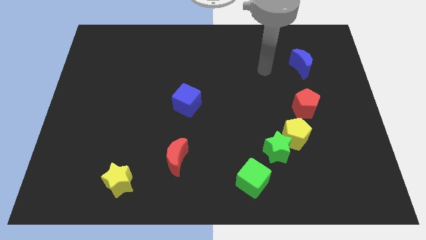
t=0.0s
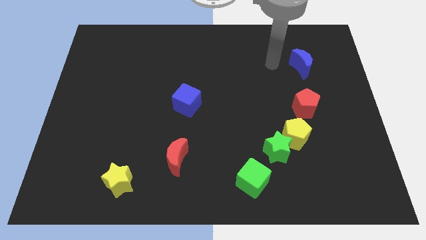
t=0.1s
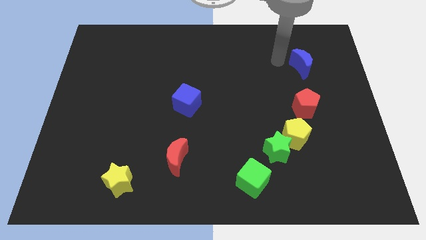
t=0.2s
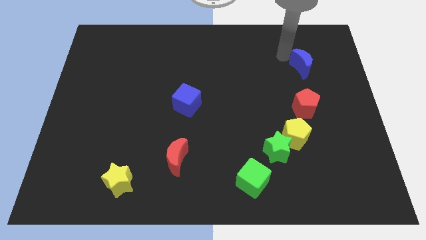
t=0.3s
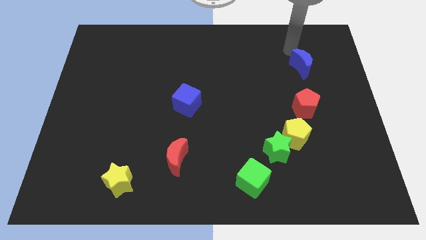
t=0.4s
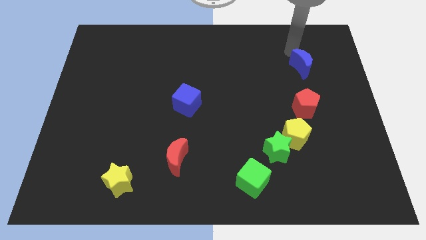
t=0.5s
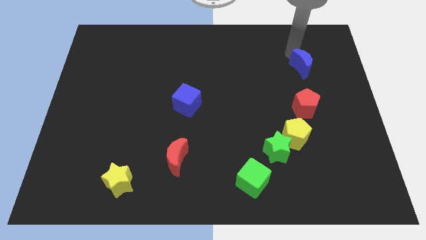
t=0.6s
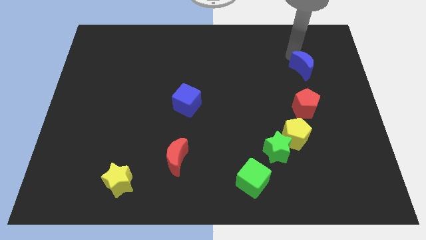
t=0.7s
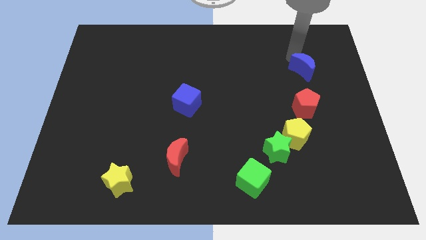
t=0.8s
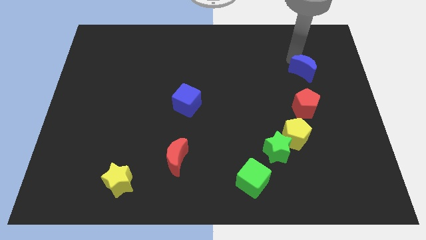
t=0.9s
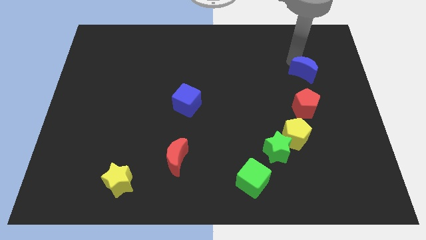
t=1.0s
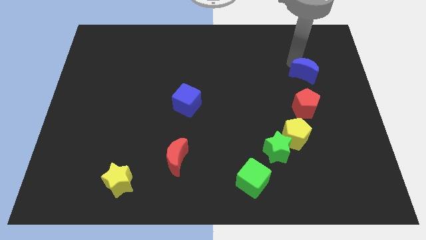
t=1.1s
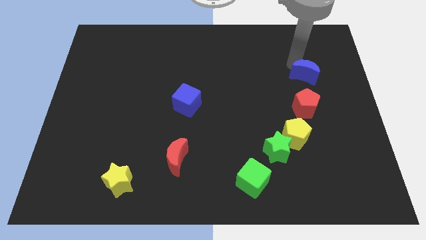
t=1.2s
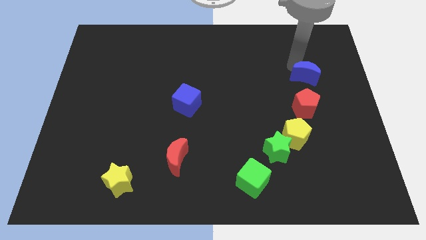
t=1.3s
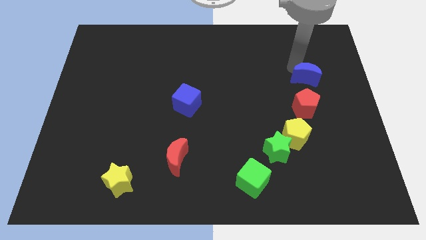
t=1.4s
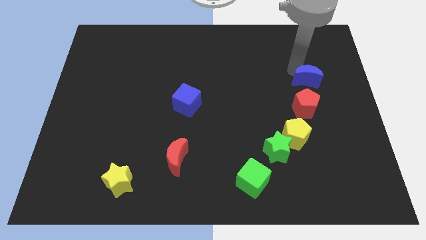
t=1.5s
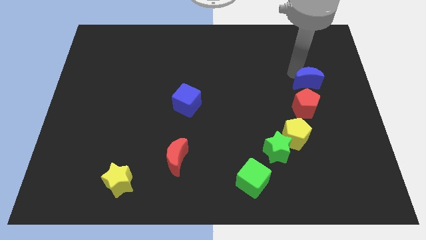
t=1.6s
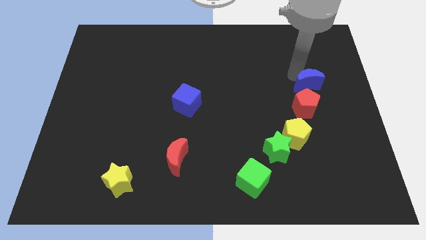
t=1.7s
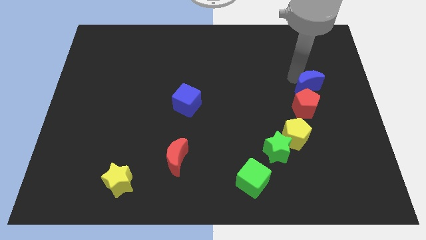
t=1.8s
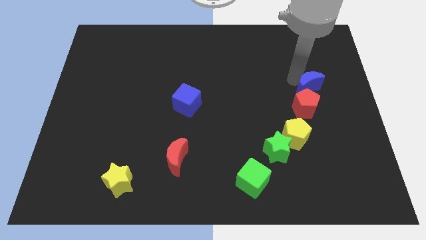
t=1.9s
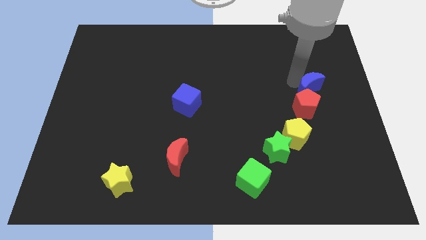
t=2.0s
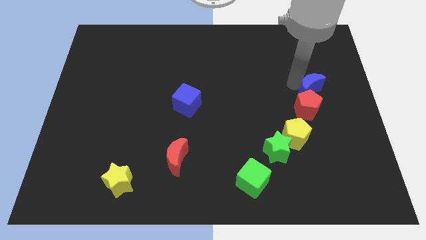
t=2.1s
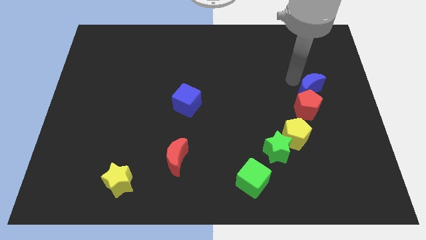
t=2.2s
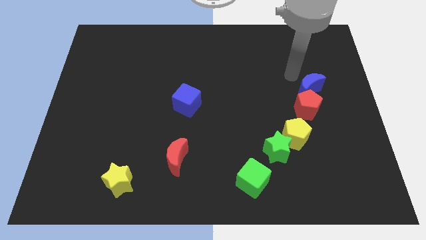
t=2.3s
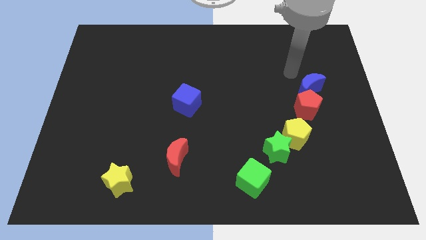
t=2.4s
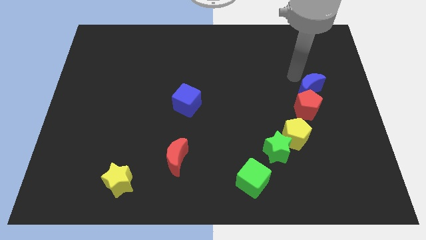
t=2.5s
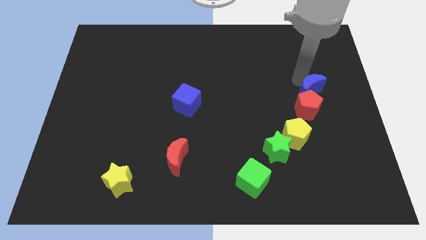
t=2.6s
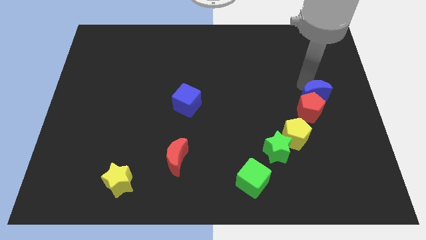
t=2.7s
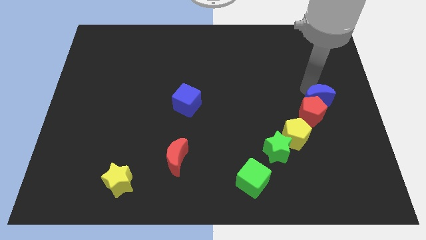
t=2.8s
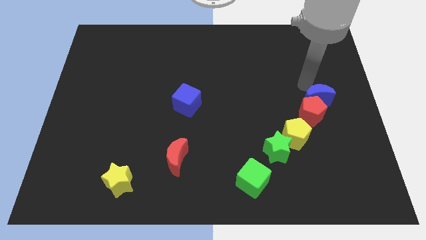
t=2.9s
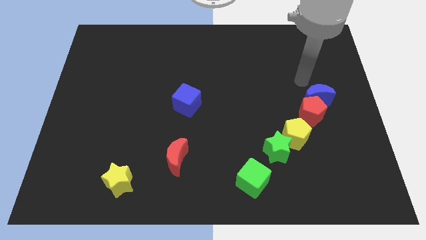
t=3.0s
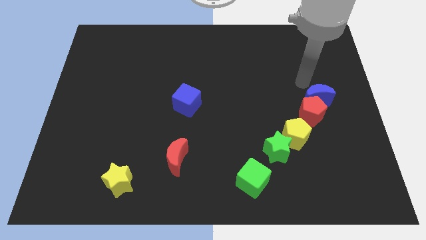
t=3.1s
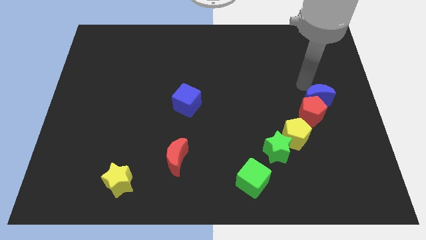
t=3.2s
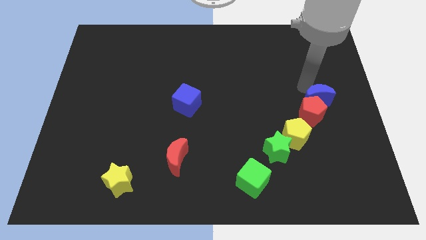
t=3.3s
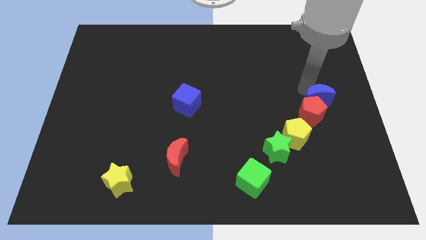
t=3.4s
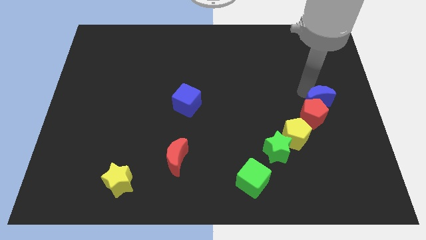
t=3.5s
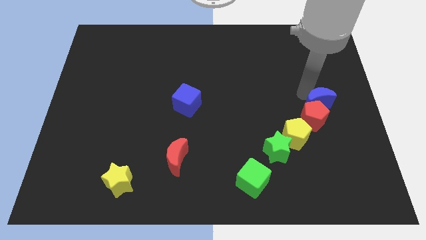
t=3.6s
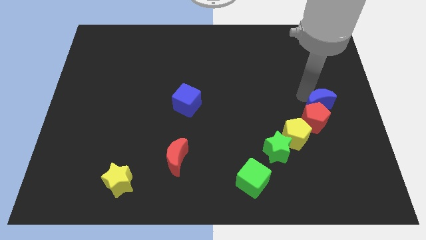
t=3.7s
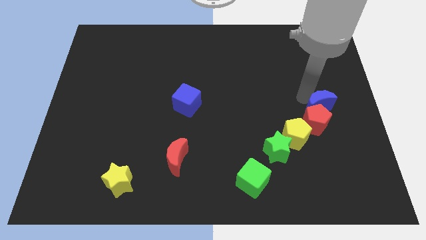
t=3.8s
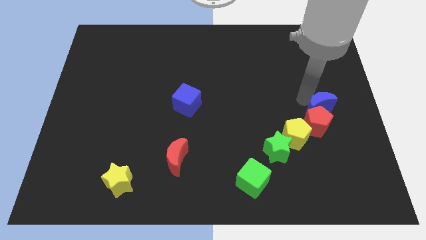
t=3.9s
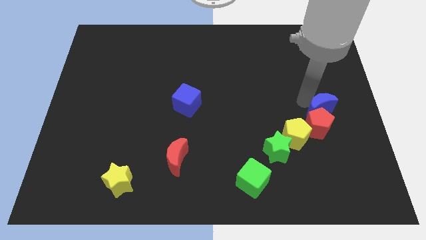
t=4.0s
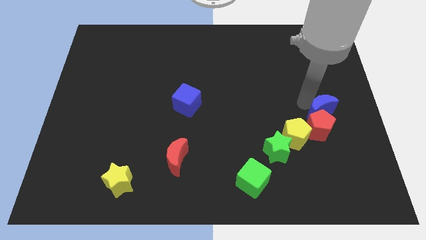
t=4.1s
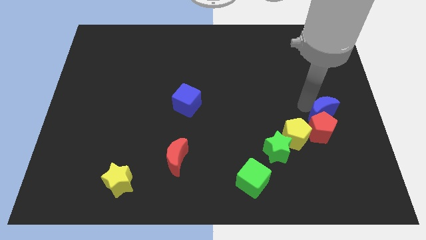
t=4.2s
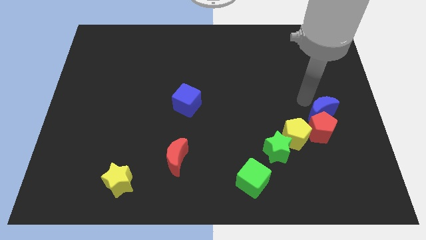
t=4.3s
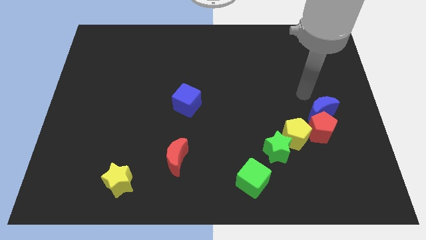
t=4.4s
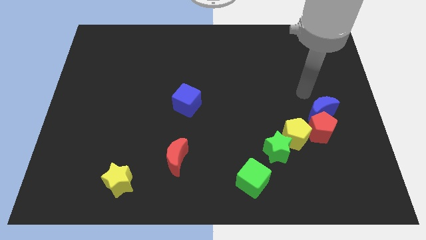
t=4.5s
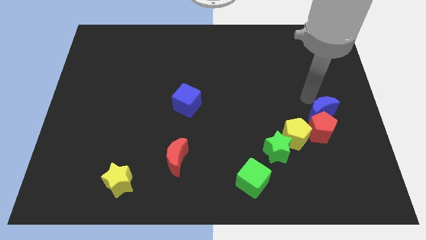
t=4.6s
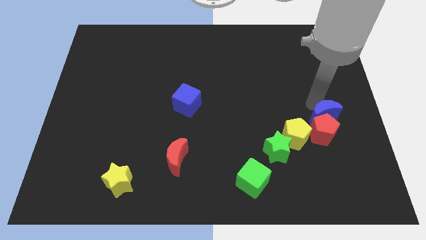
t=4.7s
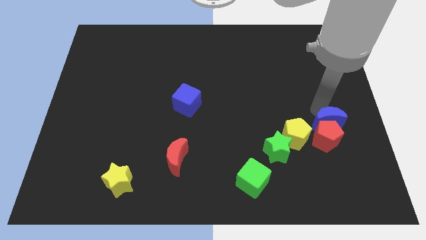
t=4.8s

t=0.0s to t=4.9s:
put the blue moon to the right side of the yellow pentagon

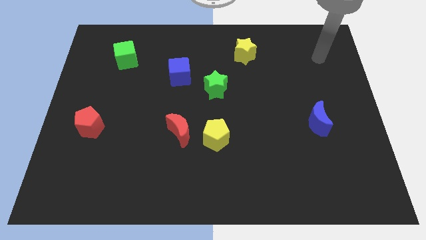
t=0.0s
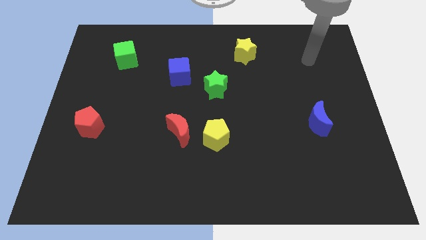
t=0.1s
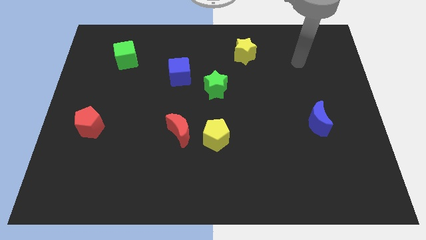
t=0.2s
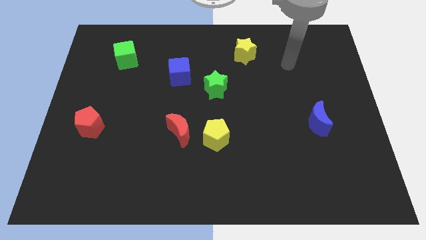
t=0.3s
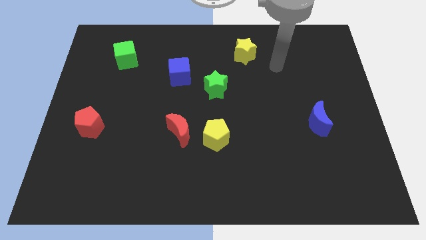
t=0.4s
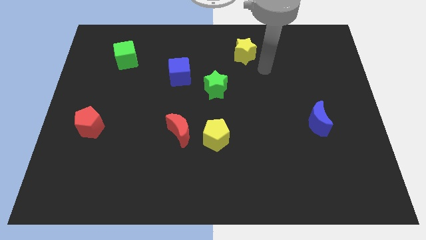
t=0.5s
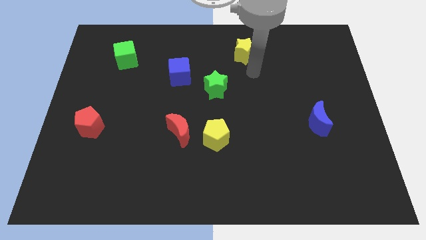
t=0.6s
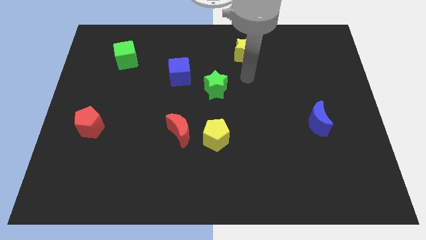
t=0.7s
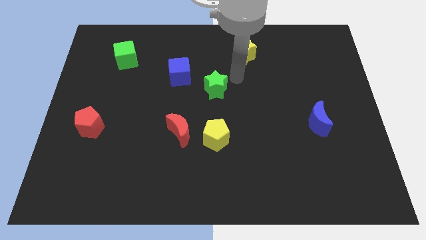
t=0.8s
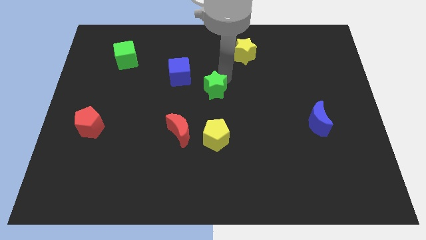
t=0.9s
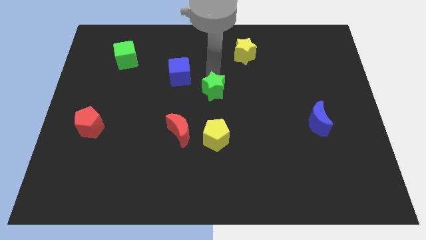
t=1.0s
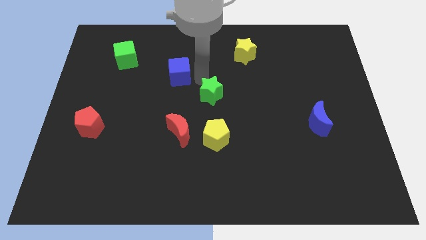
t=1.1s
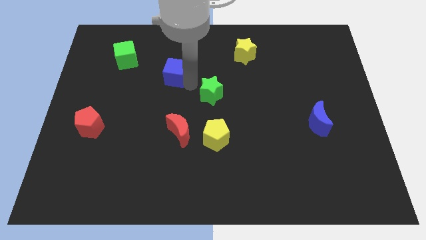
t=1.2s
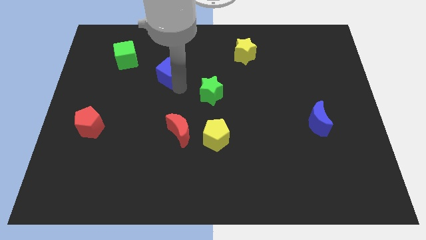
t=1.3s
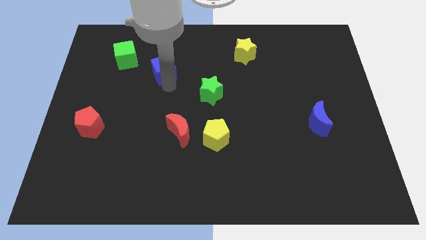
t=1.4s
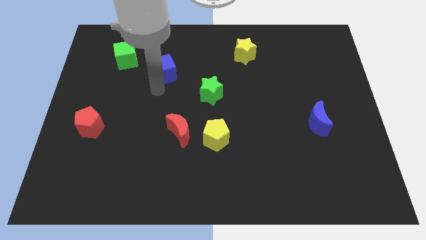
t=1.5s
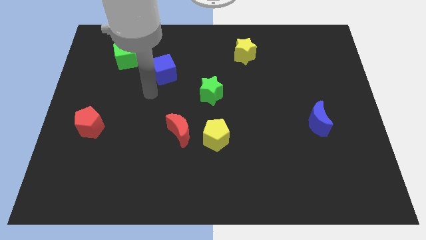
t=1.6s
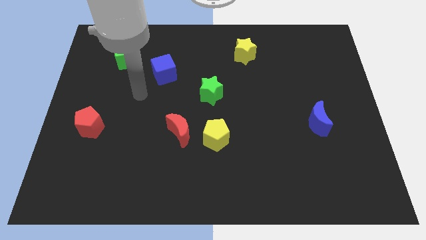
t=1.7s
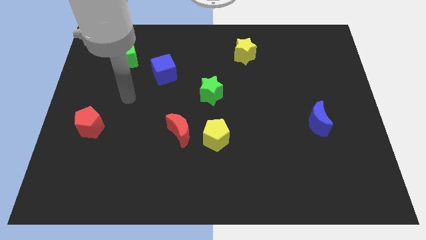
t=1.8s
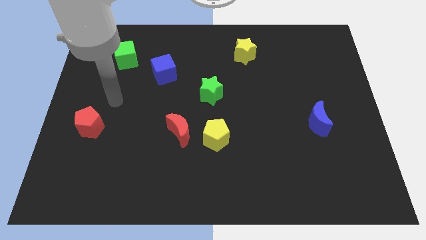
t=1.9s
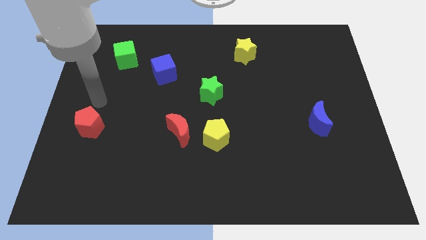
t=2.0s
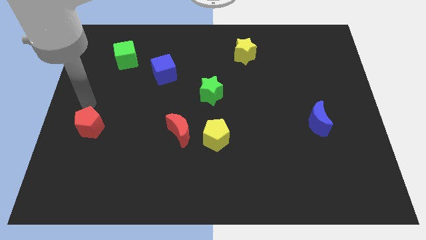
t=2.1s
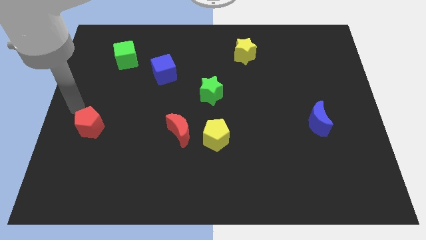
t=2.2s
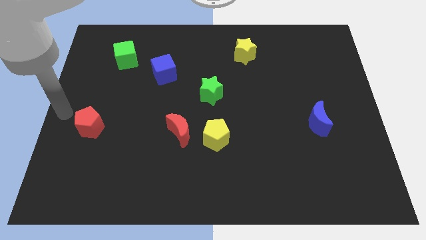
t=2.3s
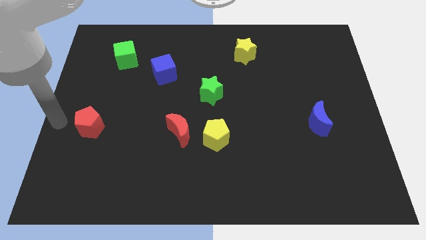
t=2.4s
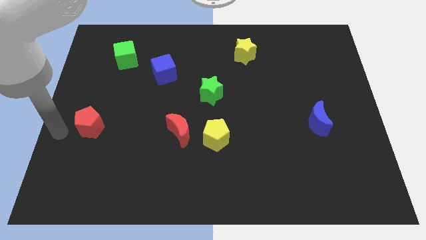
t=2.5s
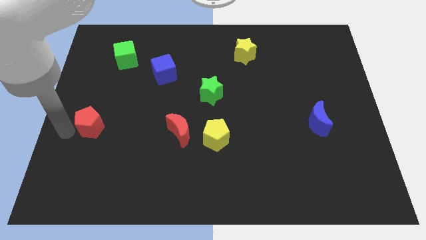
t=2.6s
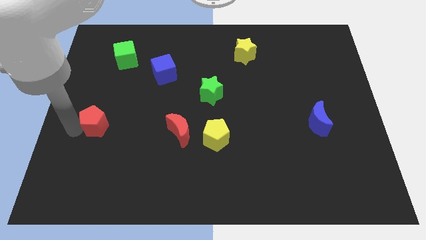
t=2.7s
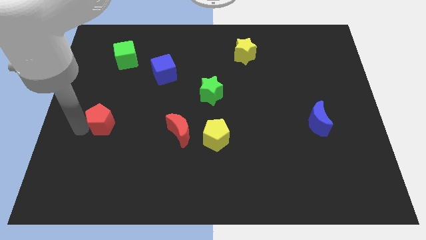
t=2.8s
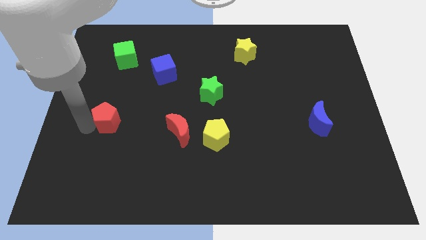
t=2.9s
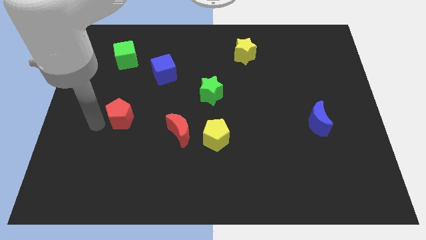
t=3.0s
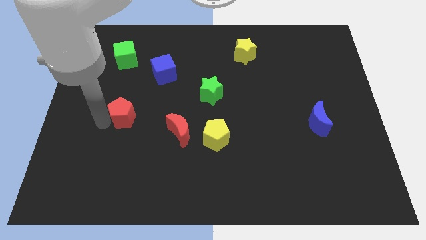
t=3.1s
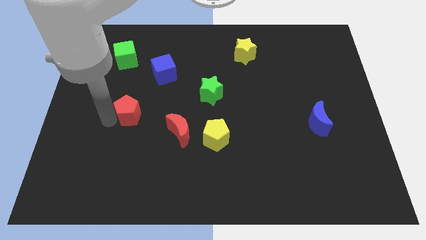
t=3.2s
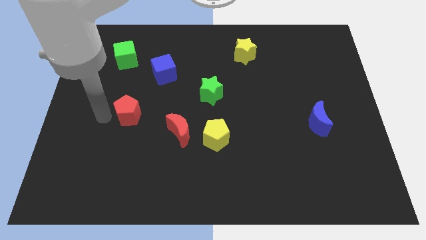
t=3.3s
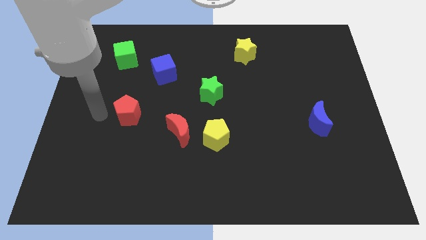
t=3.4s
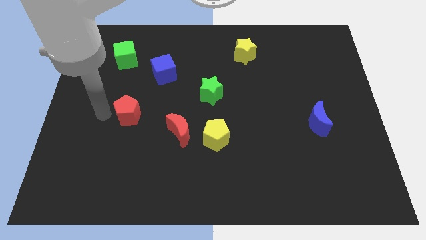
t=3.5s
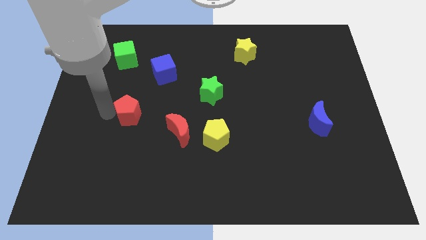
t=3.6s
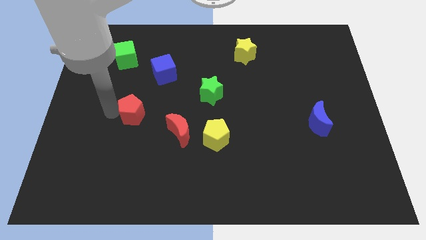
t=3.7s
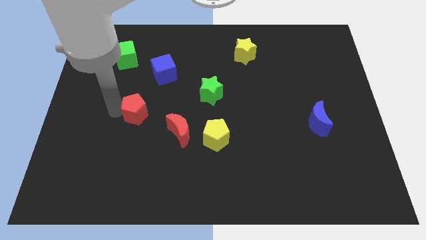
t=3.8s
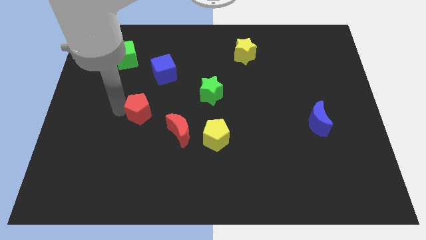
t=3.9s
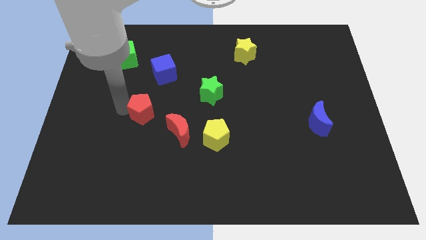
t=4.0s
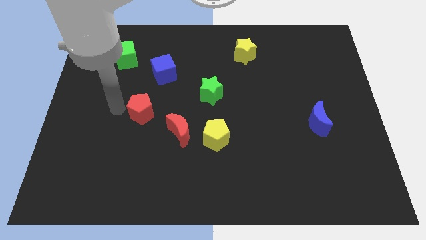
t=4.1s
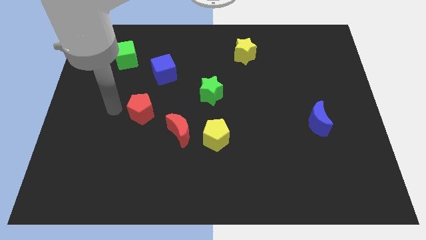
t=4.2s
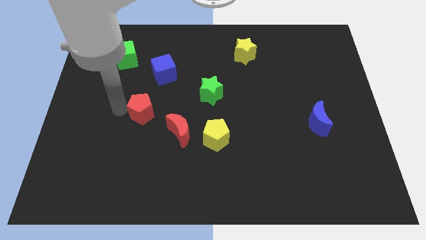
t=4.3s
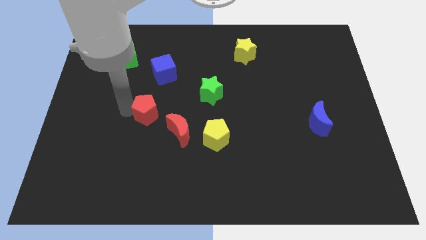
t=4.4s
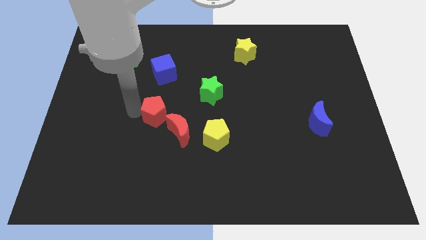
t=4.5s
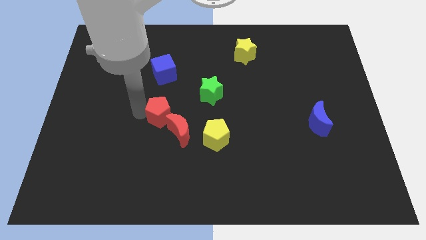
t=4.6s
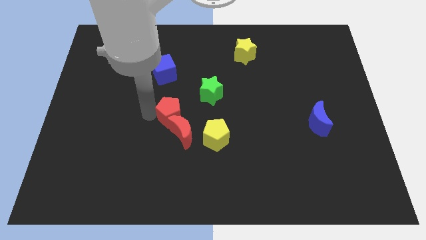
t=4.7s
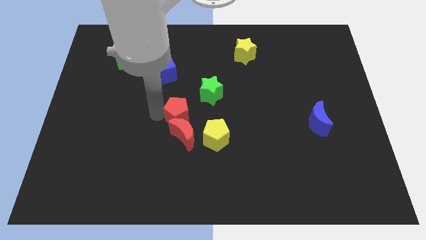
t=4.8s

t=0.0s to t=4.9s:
slide the red pentagon diagonally up and to the left of the yellow pentagon
